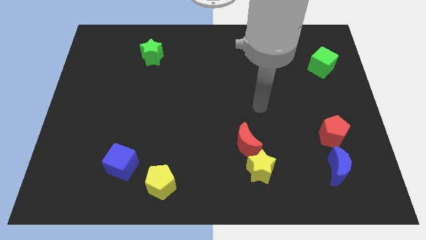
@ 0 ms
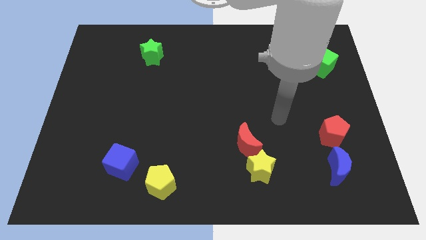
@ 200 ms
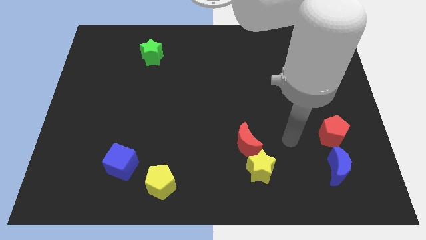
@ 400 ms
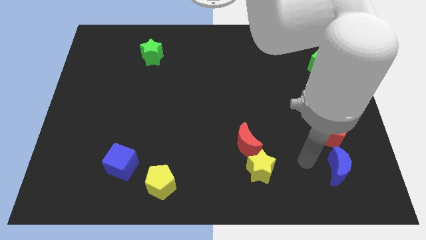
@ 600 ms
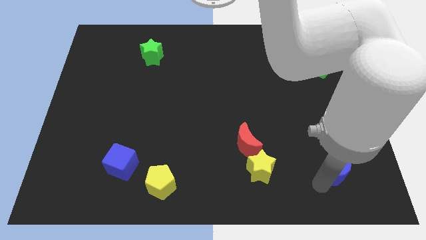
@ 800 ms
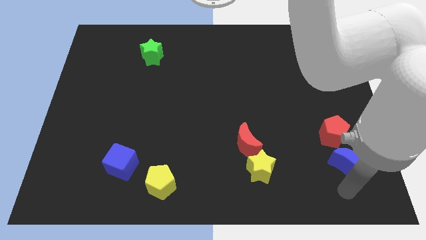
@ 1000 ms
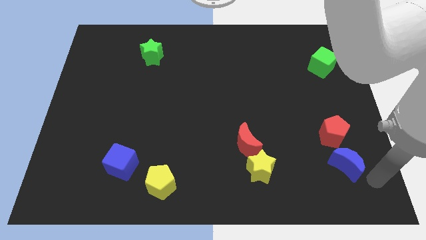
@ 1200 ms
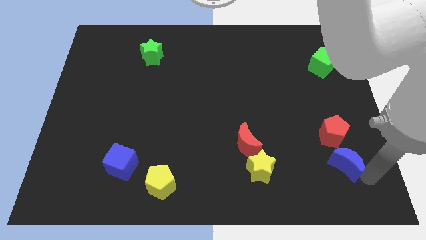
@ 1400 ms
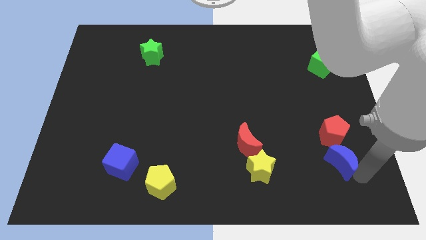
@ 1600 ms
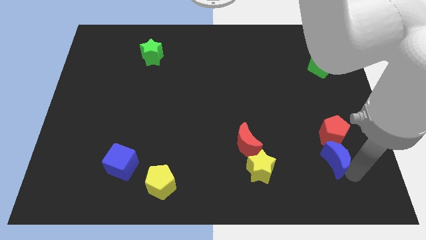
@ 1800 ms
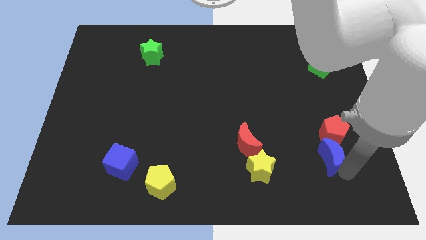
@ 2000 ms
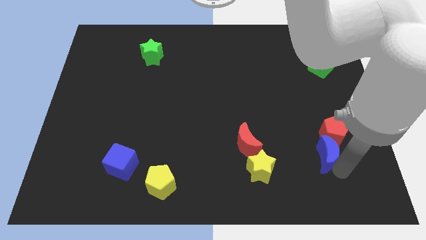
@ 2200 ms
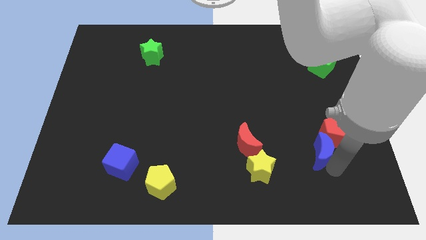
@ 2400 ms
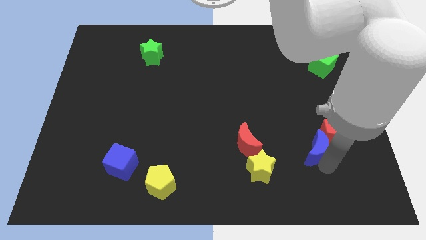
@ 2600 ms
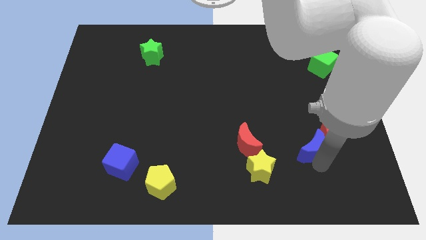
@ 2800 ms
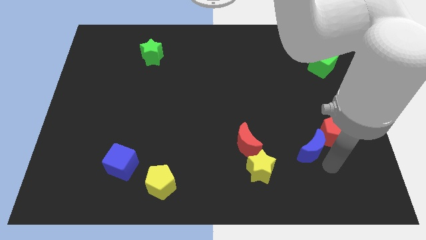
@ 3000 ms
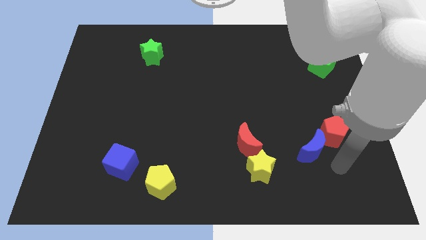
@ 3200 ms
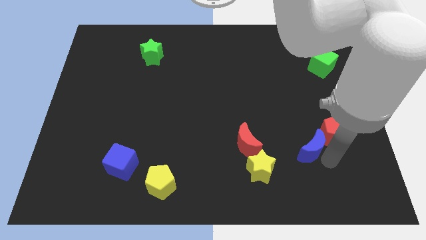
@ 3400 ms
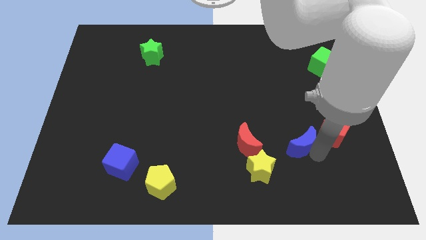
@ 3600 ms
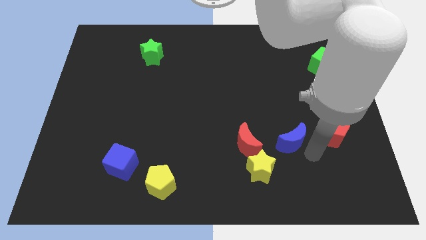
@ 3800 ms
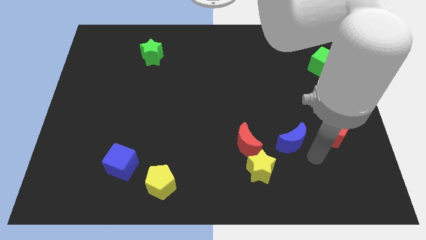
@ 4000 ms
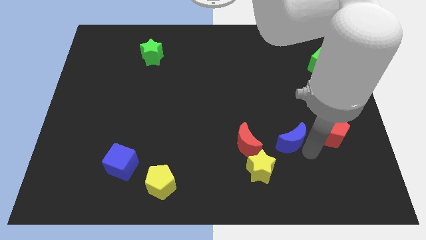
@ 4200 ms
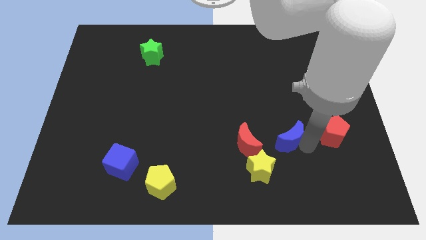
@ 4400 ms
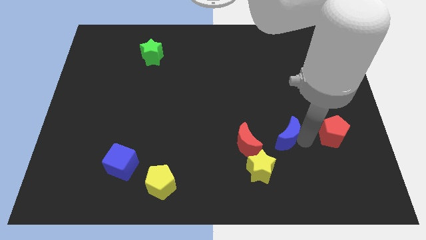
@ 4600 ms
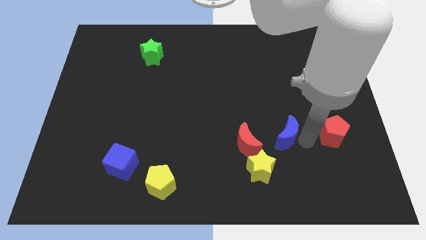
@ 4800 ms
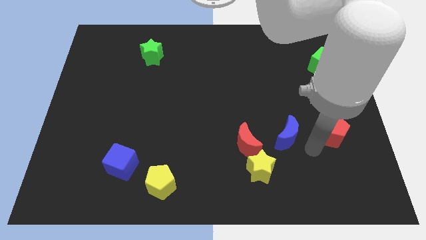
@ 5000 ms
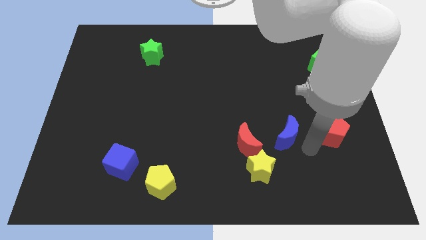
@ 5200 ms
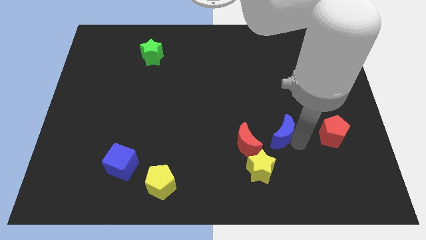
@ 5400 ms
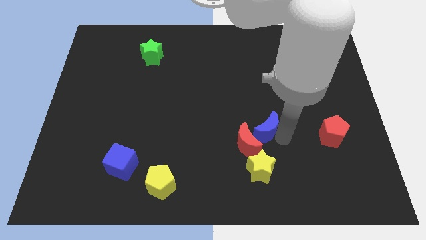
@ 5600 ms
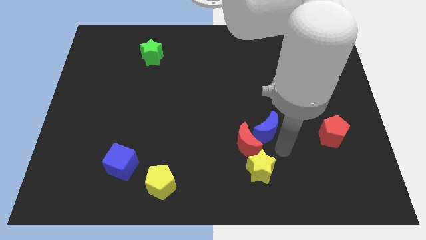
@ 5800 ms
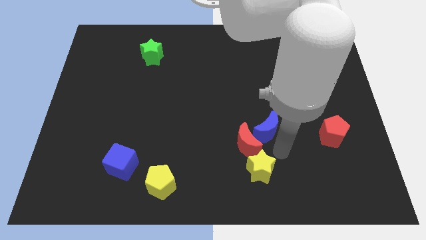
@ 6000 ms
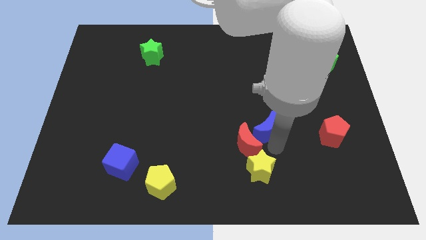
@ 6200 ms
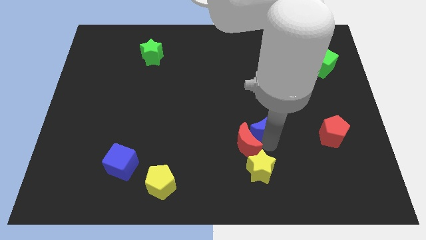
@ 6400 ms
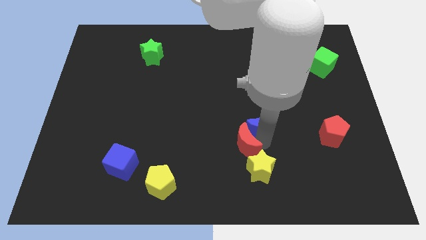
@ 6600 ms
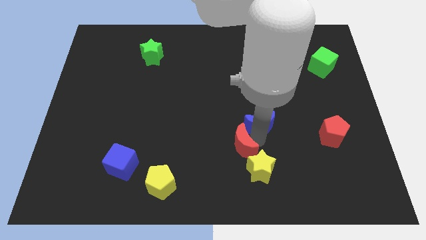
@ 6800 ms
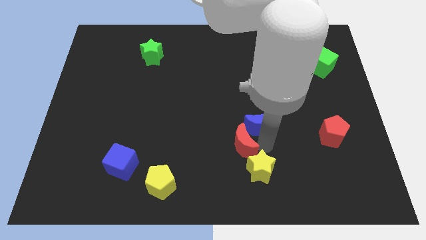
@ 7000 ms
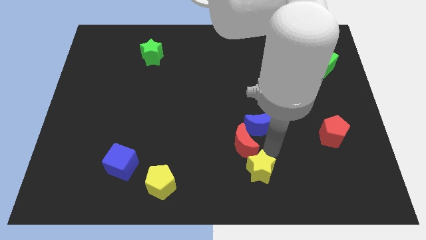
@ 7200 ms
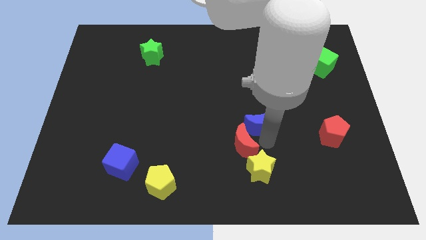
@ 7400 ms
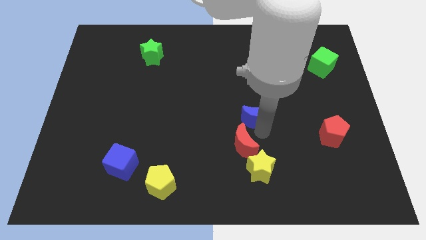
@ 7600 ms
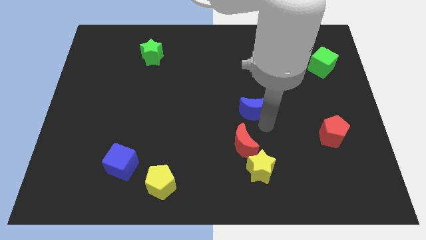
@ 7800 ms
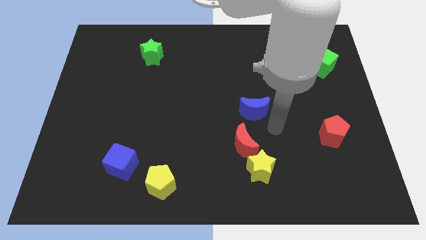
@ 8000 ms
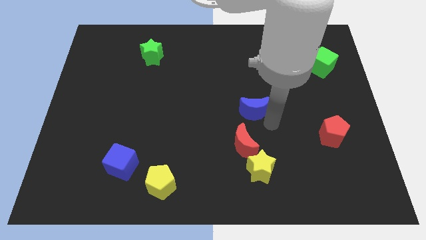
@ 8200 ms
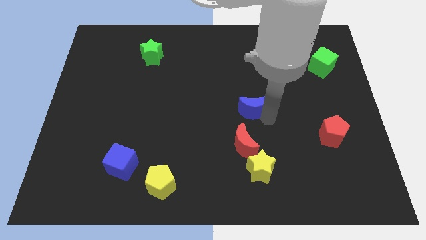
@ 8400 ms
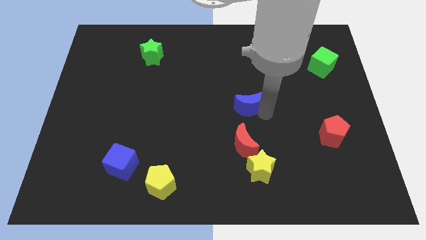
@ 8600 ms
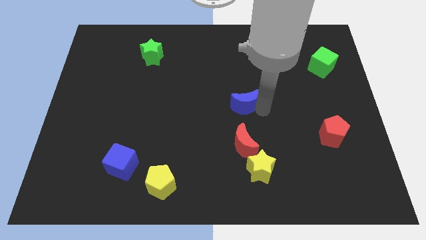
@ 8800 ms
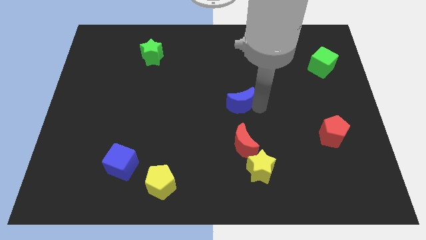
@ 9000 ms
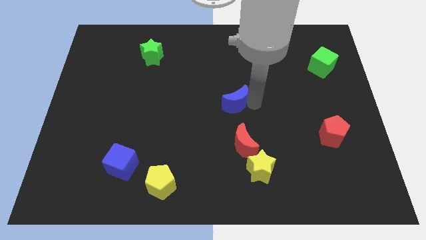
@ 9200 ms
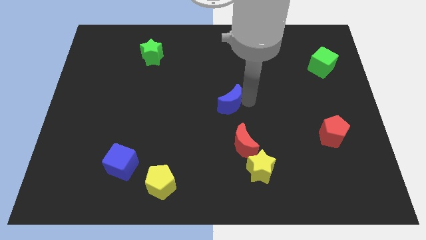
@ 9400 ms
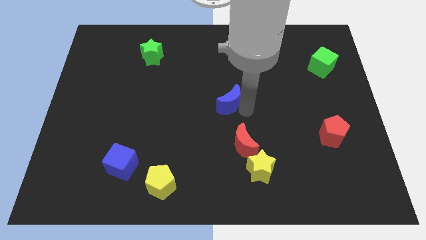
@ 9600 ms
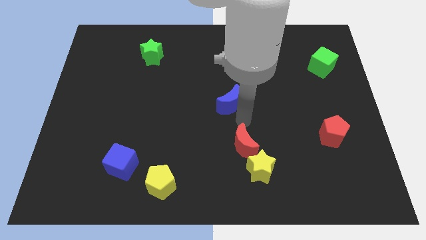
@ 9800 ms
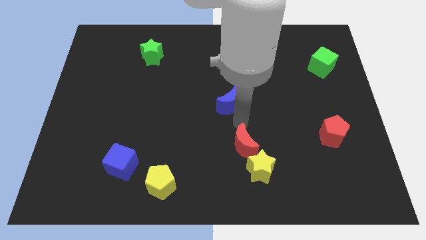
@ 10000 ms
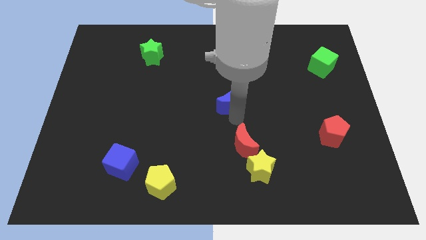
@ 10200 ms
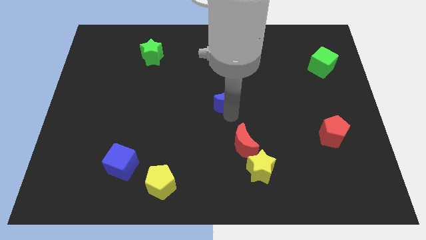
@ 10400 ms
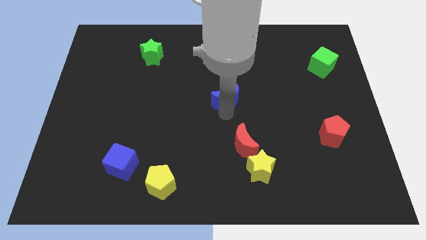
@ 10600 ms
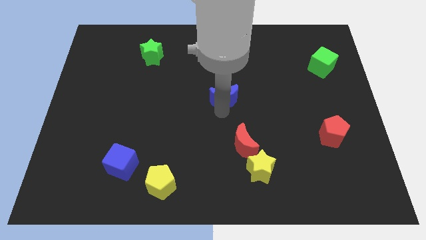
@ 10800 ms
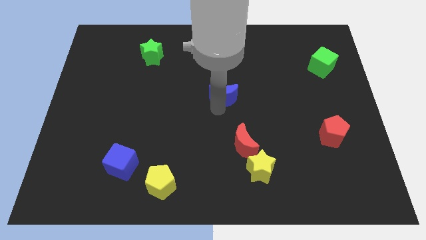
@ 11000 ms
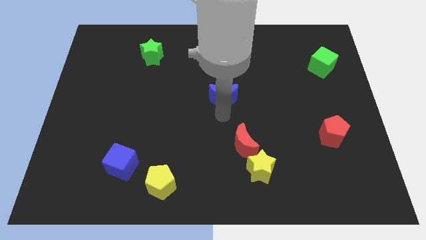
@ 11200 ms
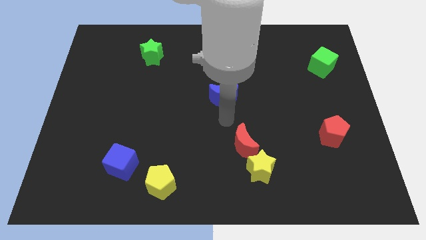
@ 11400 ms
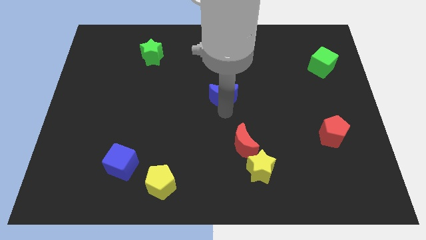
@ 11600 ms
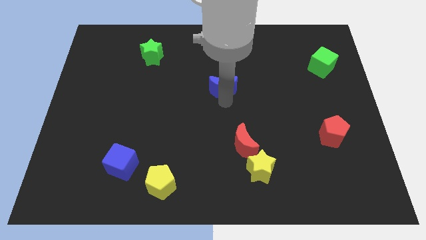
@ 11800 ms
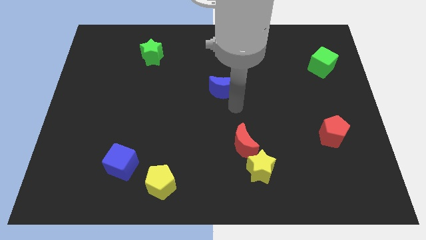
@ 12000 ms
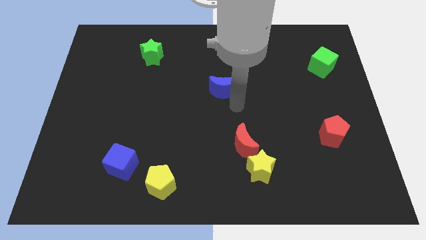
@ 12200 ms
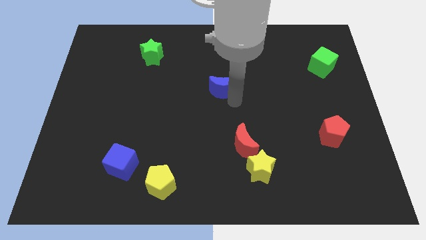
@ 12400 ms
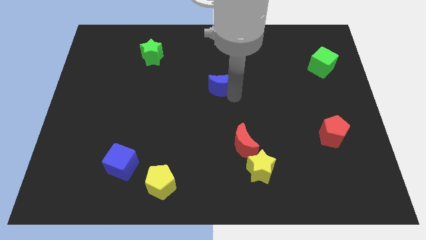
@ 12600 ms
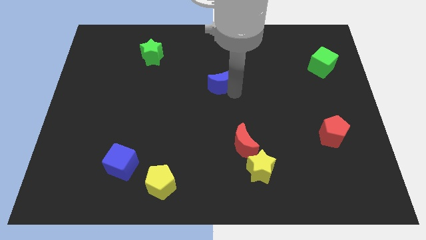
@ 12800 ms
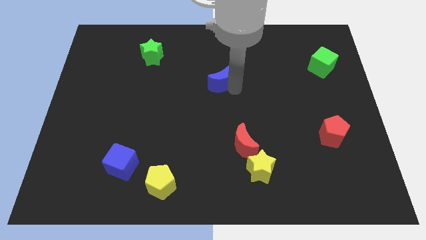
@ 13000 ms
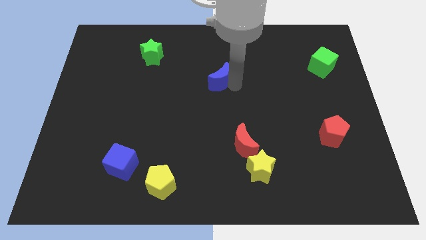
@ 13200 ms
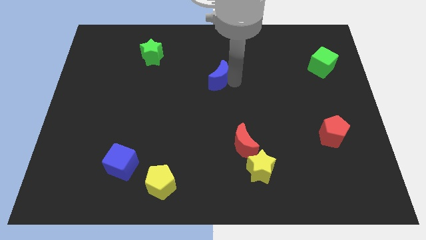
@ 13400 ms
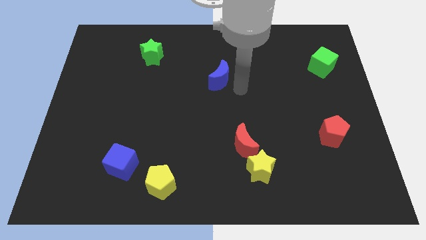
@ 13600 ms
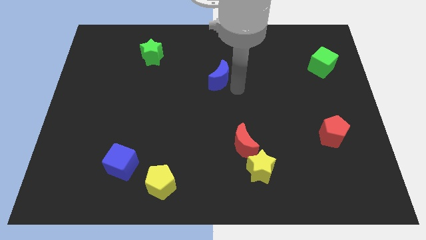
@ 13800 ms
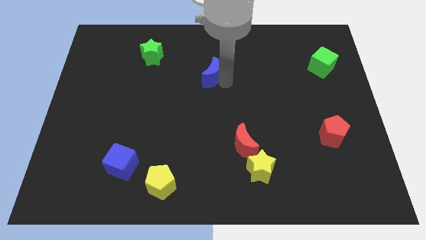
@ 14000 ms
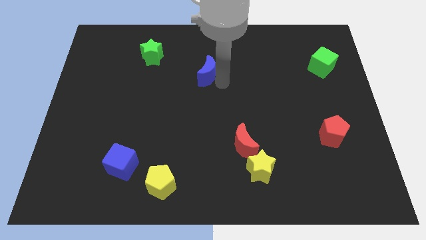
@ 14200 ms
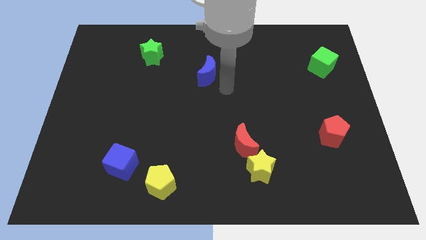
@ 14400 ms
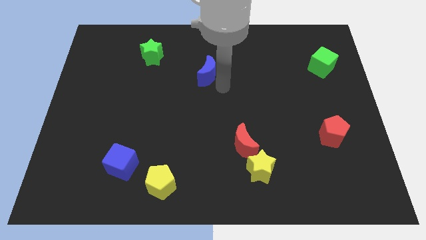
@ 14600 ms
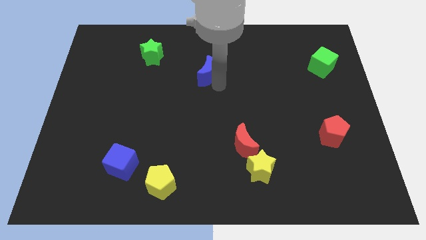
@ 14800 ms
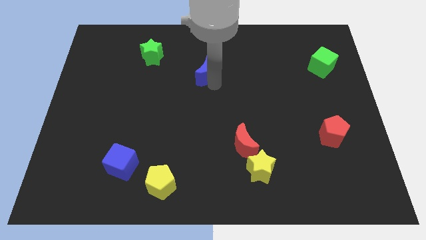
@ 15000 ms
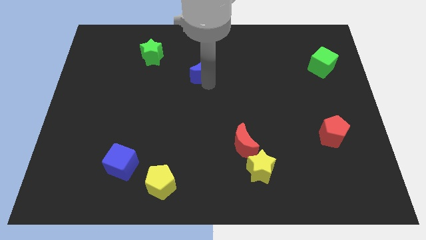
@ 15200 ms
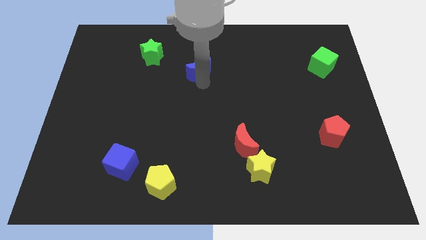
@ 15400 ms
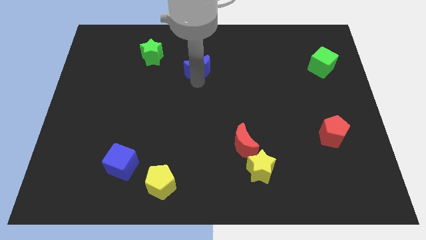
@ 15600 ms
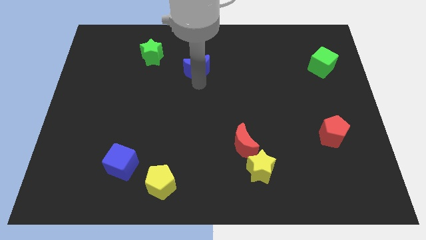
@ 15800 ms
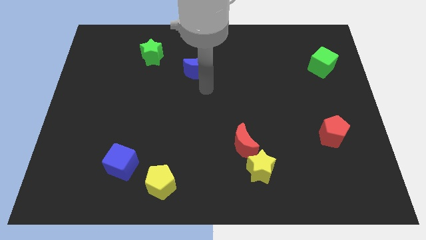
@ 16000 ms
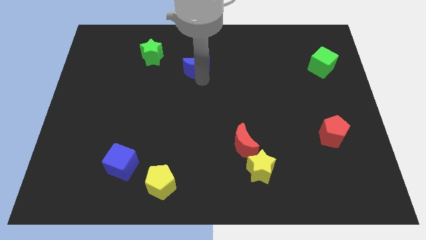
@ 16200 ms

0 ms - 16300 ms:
put the blue moon to the right side of the green star
